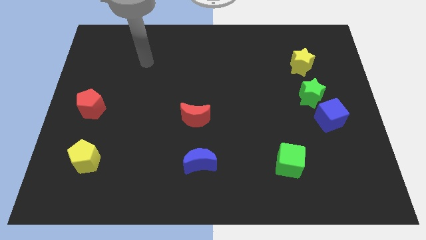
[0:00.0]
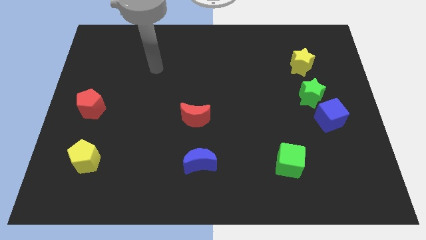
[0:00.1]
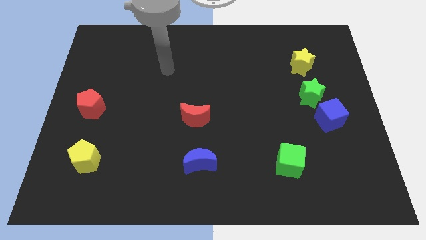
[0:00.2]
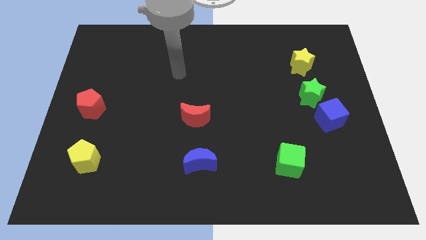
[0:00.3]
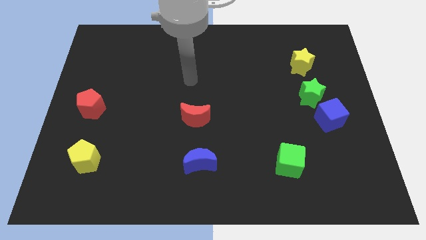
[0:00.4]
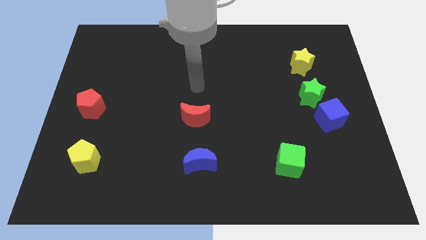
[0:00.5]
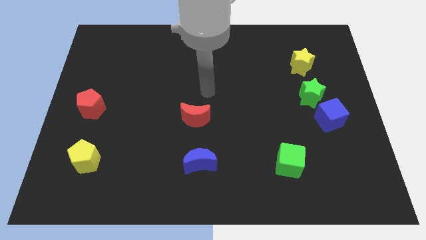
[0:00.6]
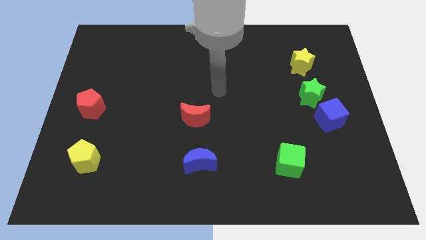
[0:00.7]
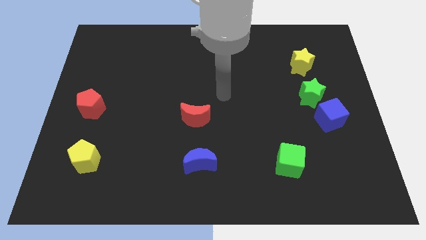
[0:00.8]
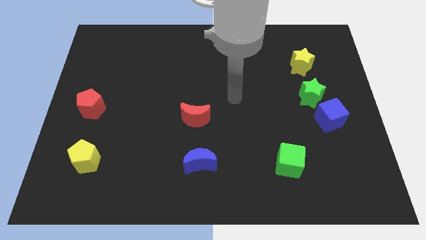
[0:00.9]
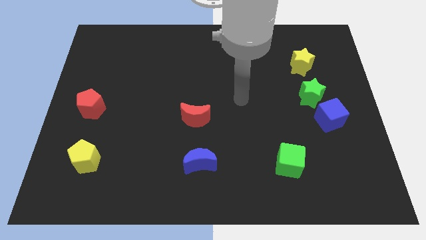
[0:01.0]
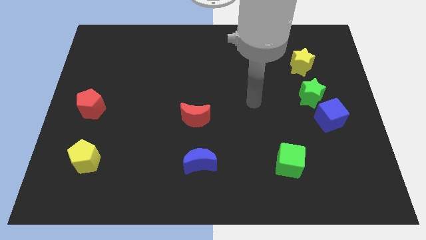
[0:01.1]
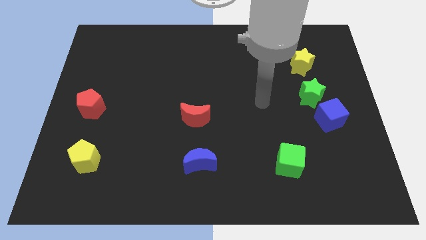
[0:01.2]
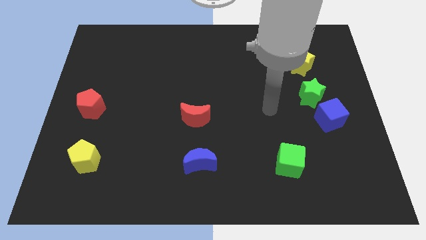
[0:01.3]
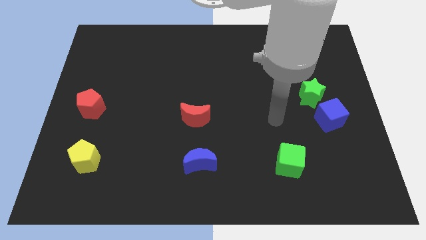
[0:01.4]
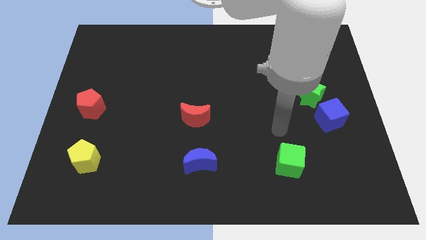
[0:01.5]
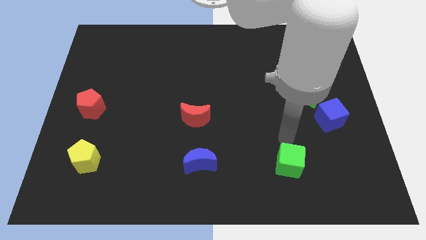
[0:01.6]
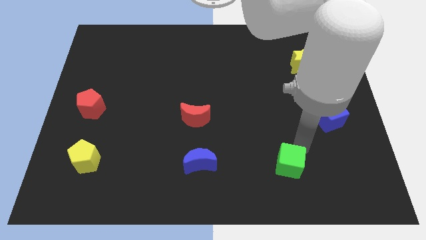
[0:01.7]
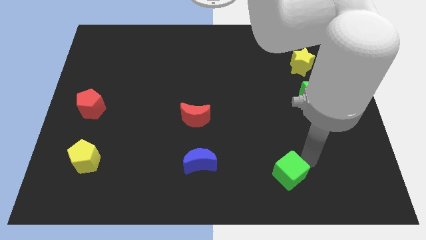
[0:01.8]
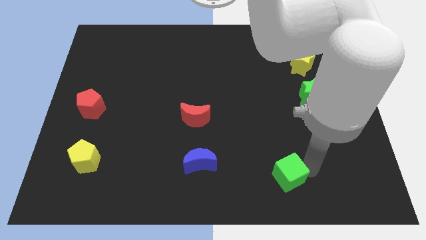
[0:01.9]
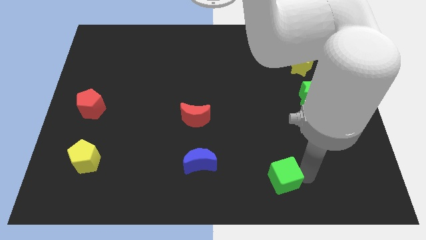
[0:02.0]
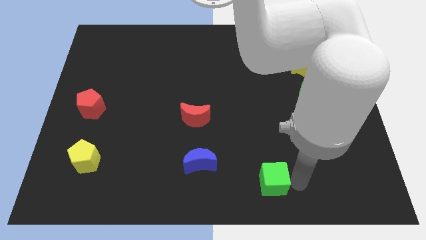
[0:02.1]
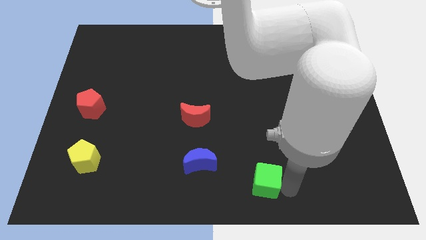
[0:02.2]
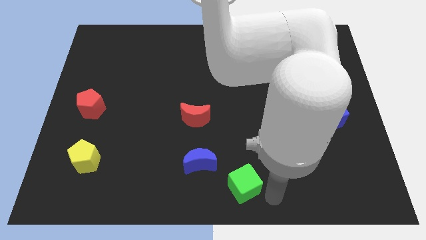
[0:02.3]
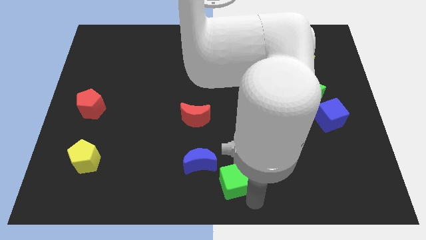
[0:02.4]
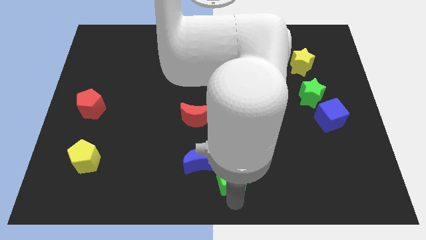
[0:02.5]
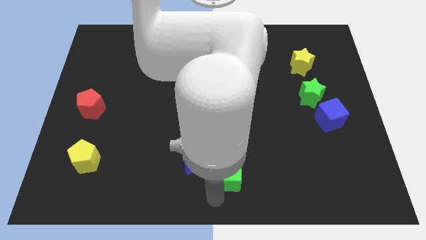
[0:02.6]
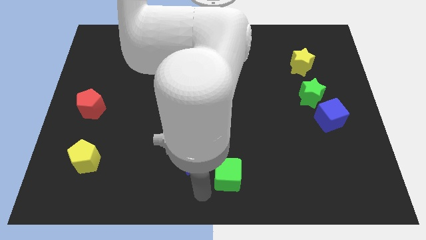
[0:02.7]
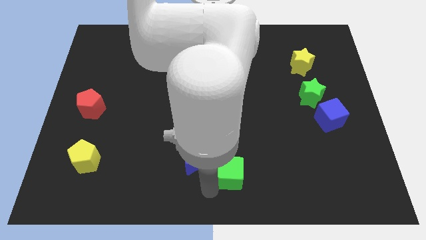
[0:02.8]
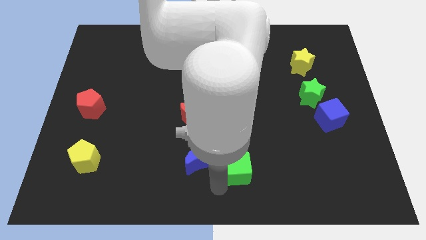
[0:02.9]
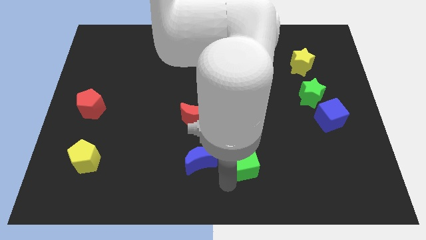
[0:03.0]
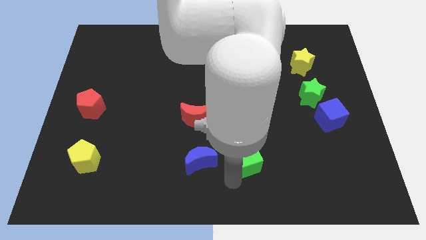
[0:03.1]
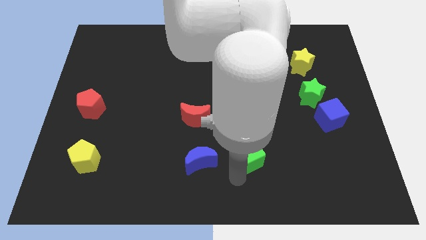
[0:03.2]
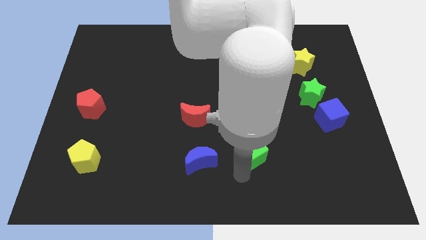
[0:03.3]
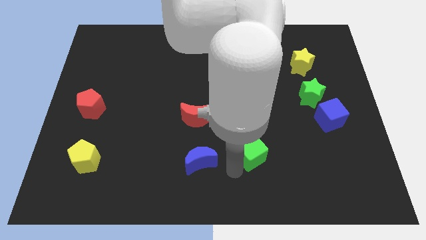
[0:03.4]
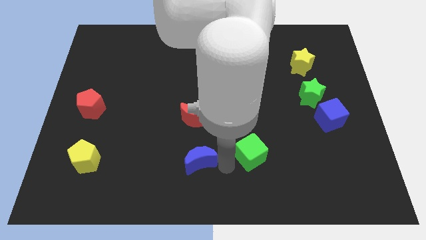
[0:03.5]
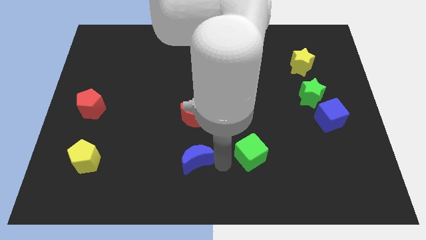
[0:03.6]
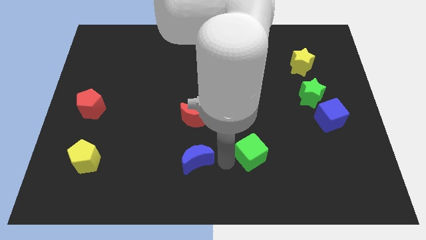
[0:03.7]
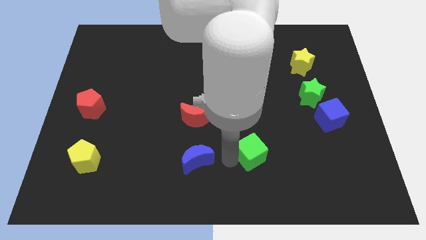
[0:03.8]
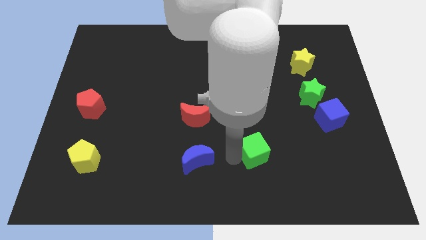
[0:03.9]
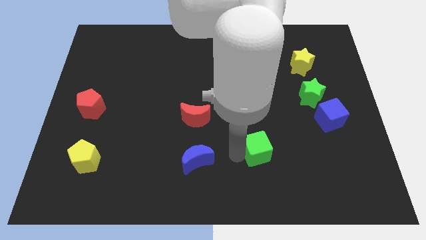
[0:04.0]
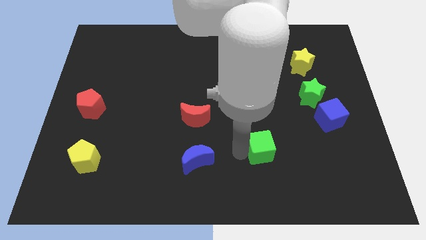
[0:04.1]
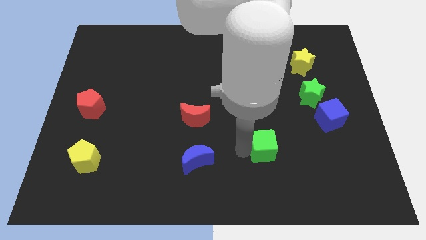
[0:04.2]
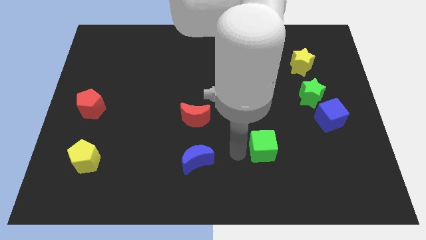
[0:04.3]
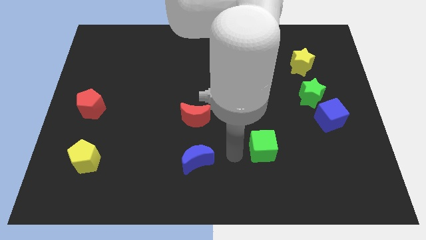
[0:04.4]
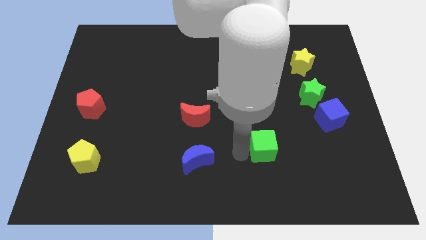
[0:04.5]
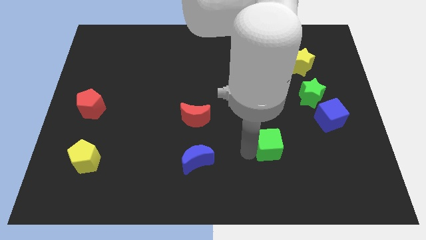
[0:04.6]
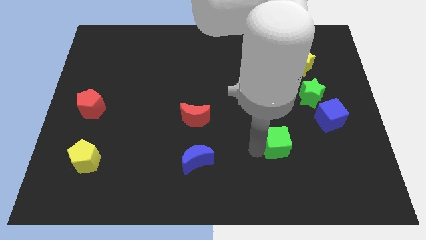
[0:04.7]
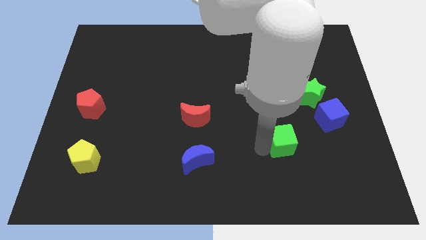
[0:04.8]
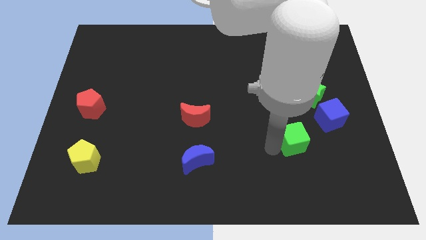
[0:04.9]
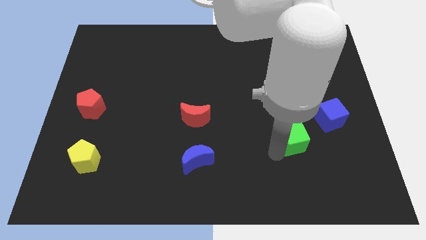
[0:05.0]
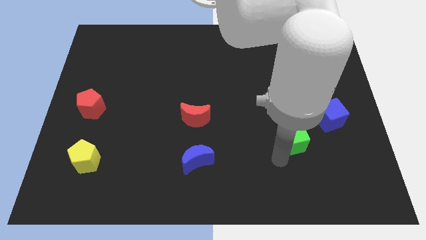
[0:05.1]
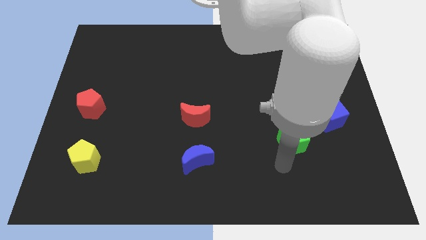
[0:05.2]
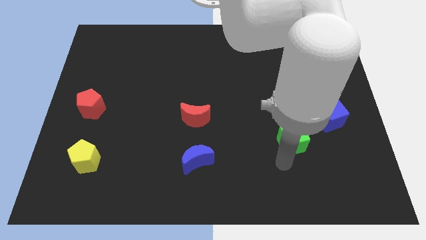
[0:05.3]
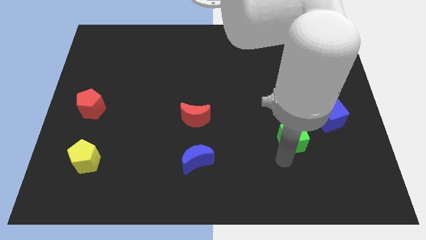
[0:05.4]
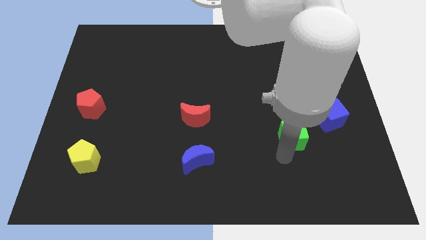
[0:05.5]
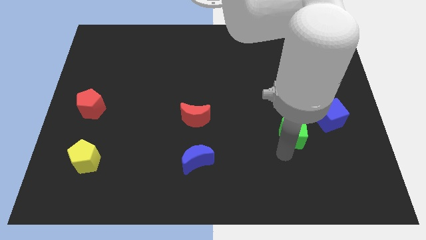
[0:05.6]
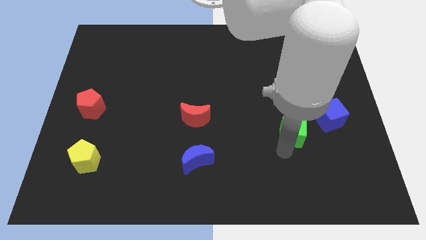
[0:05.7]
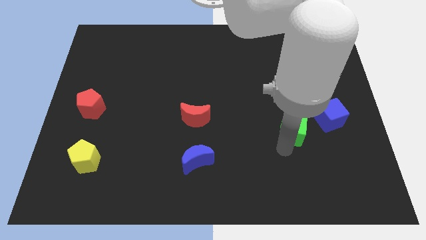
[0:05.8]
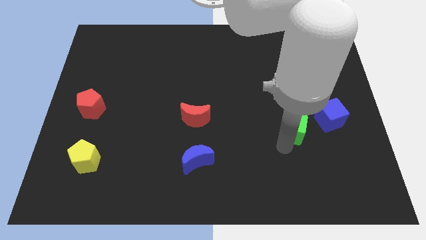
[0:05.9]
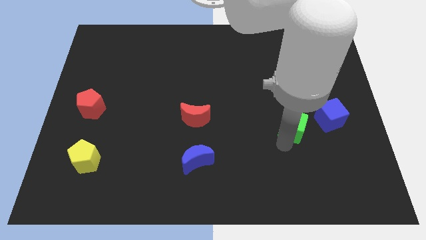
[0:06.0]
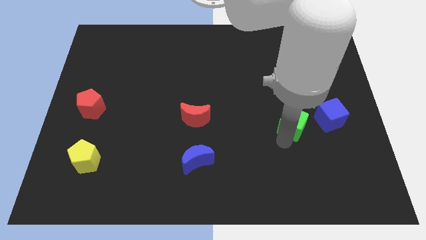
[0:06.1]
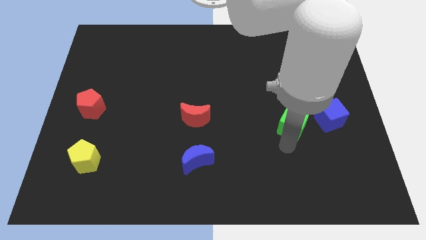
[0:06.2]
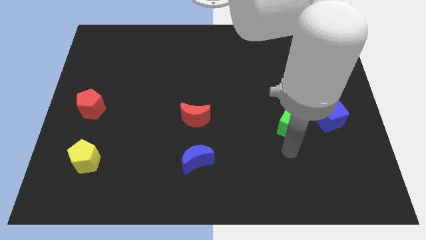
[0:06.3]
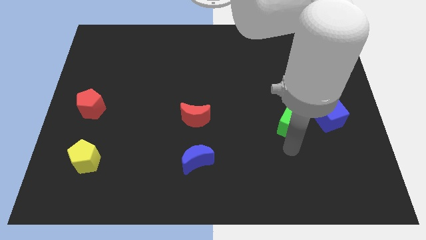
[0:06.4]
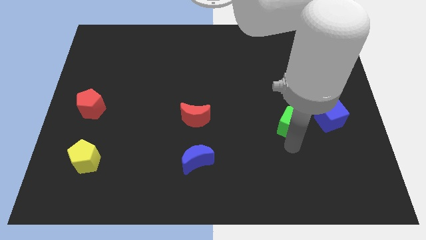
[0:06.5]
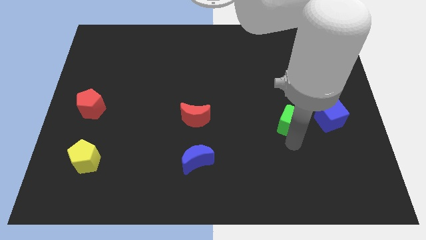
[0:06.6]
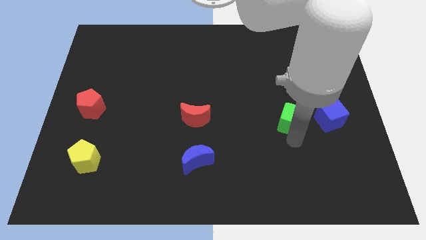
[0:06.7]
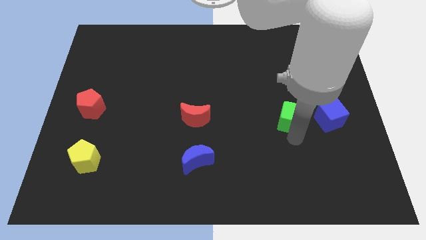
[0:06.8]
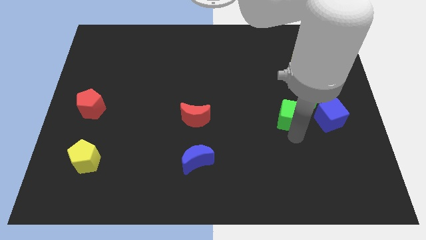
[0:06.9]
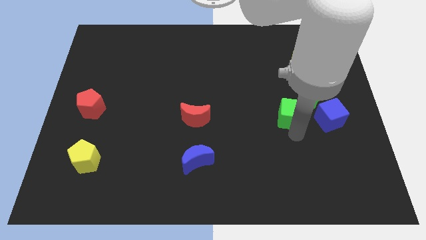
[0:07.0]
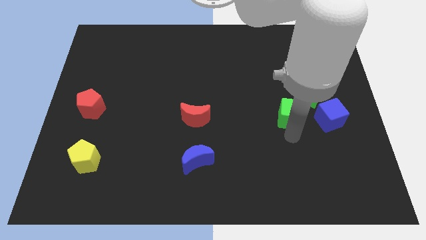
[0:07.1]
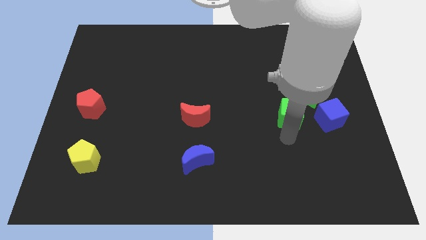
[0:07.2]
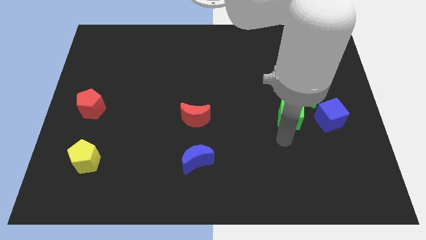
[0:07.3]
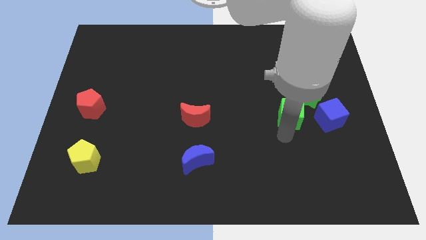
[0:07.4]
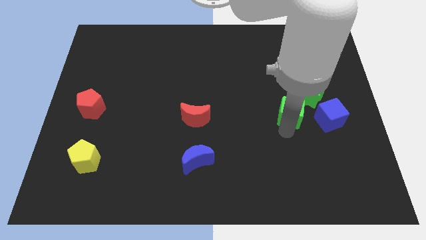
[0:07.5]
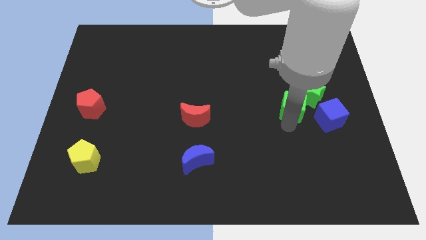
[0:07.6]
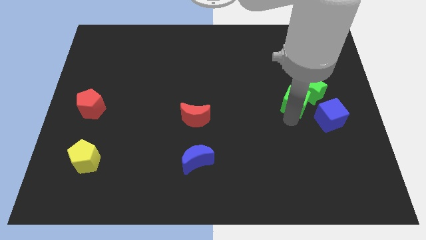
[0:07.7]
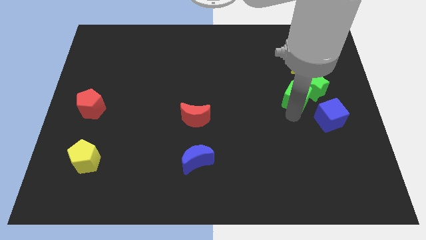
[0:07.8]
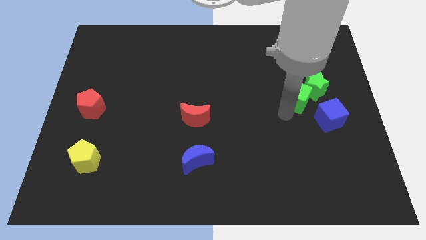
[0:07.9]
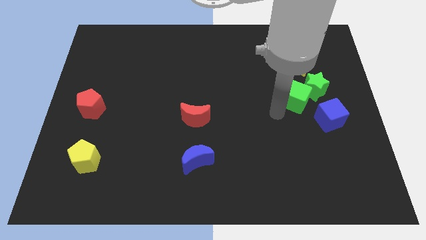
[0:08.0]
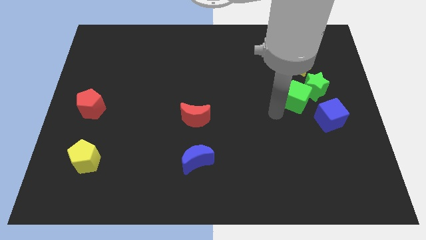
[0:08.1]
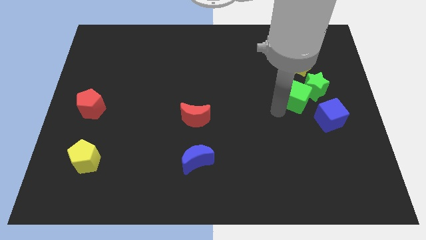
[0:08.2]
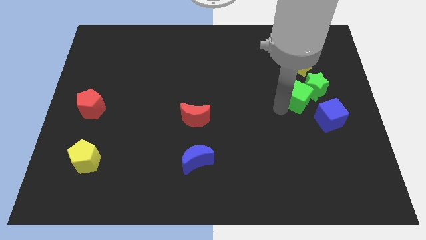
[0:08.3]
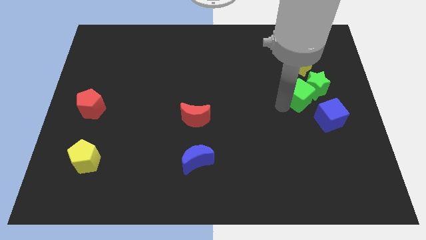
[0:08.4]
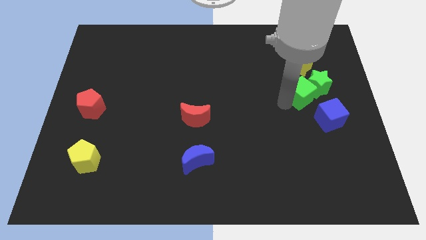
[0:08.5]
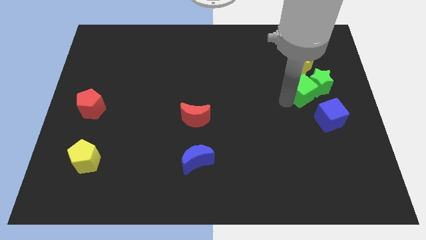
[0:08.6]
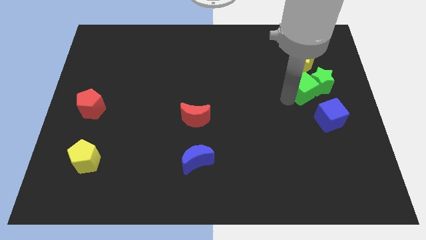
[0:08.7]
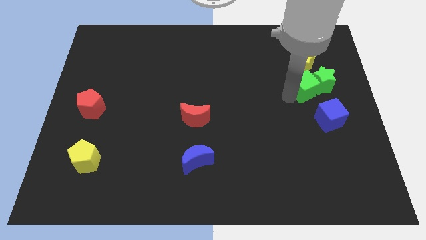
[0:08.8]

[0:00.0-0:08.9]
push the green cube to the top side of the blue cube
